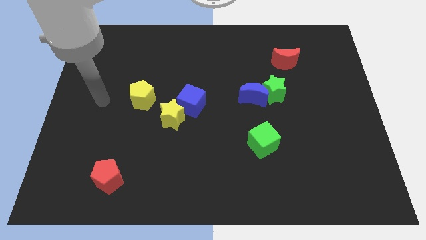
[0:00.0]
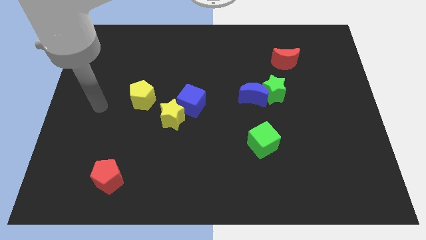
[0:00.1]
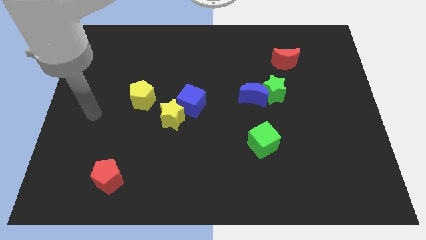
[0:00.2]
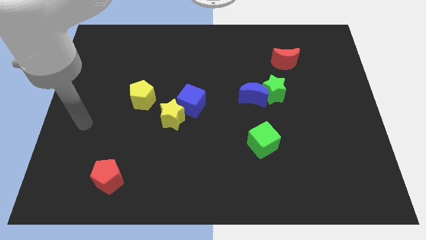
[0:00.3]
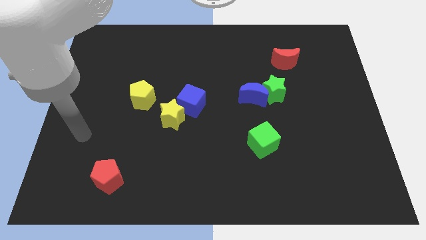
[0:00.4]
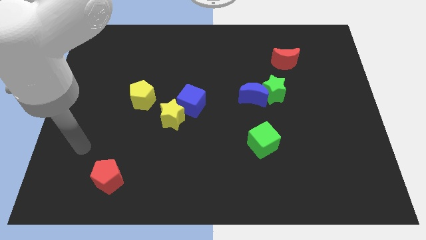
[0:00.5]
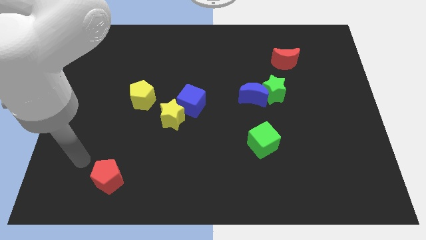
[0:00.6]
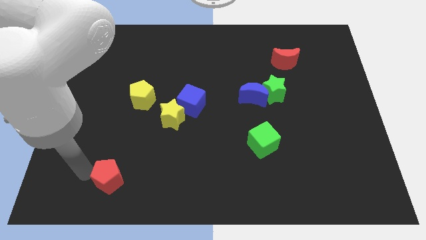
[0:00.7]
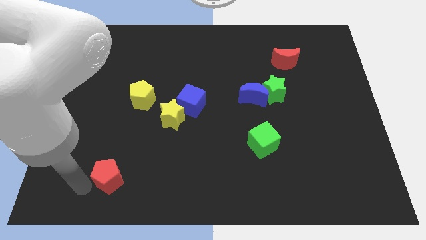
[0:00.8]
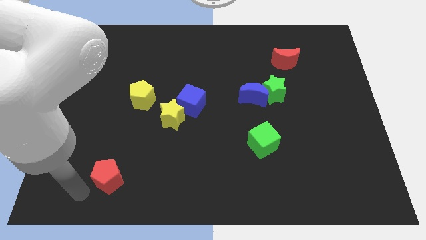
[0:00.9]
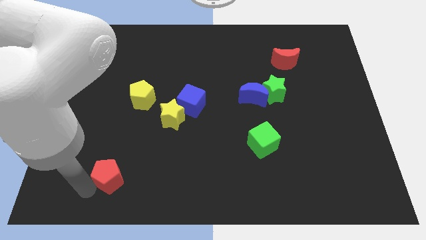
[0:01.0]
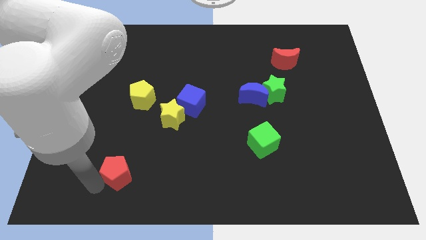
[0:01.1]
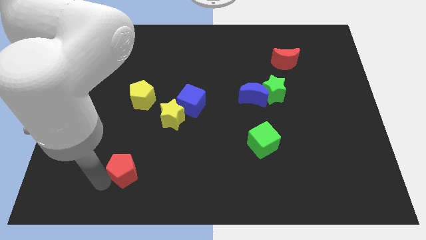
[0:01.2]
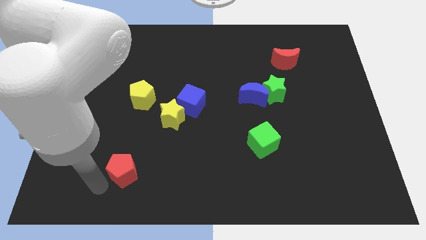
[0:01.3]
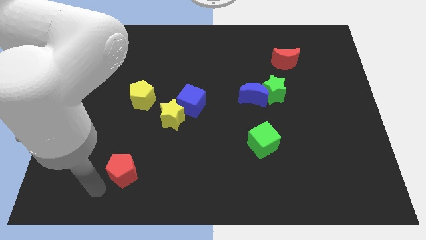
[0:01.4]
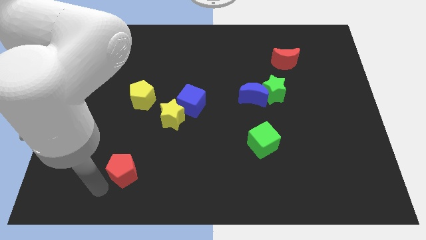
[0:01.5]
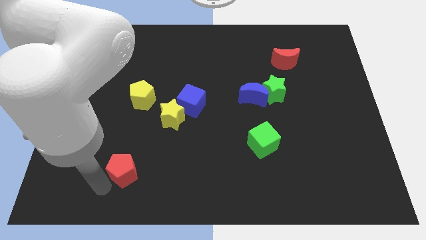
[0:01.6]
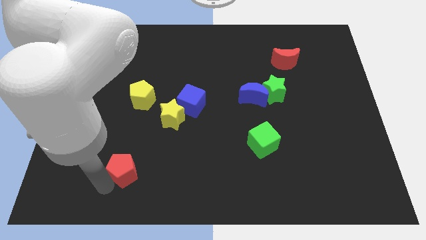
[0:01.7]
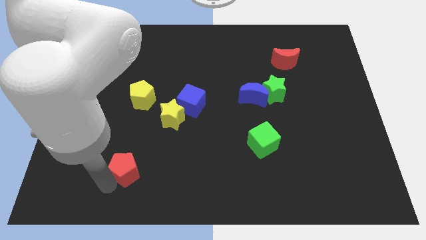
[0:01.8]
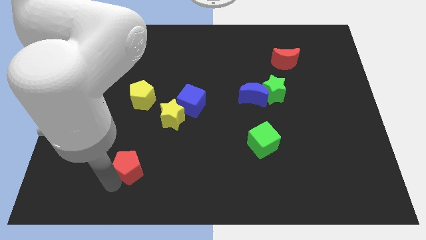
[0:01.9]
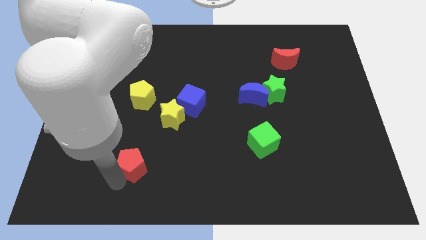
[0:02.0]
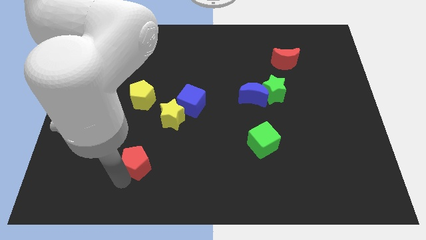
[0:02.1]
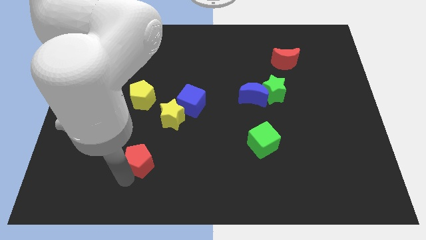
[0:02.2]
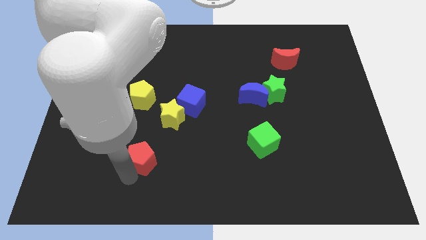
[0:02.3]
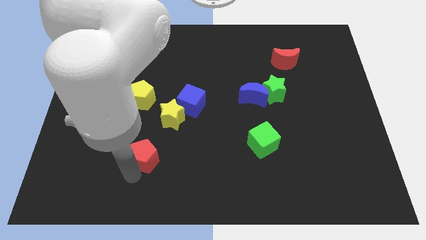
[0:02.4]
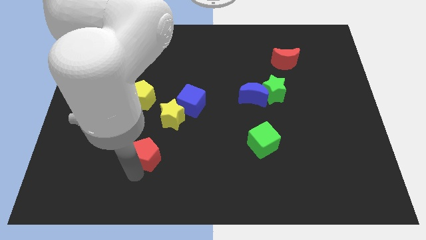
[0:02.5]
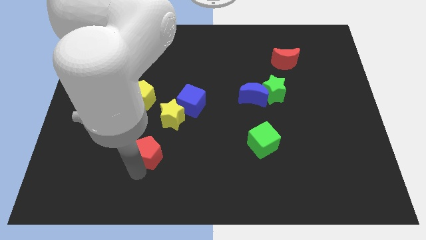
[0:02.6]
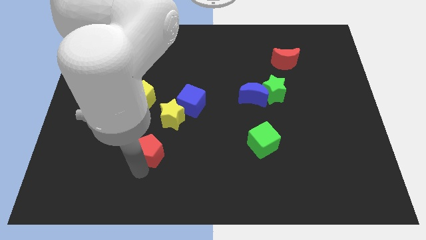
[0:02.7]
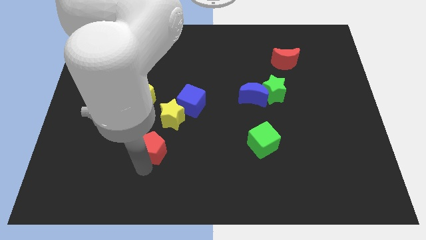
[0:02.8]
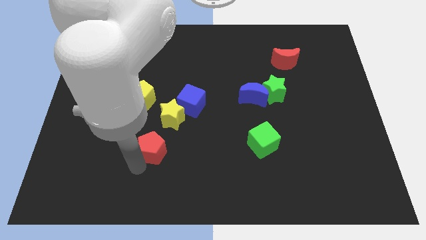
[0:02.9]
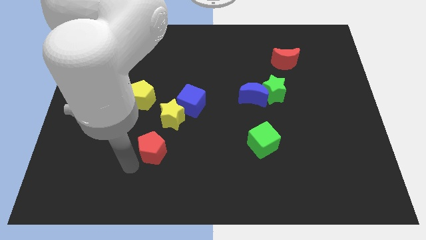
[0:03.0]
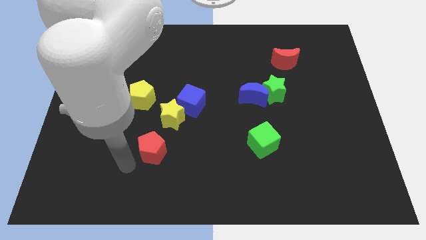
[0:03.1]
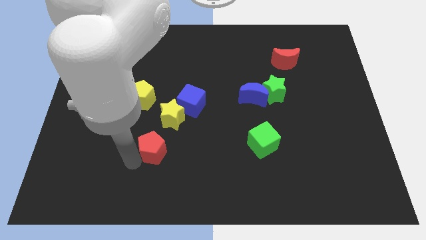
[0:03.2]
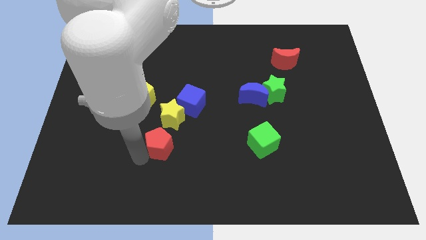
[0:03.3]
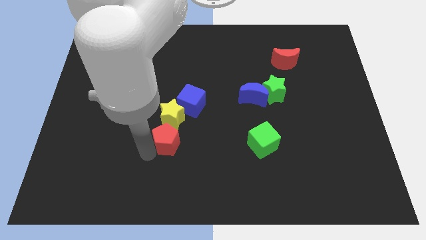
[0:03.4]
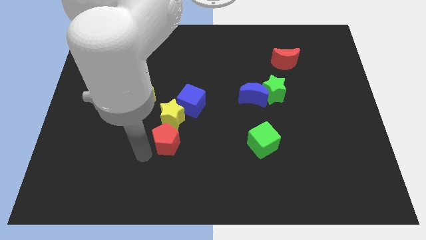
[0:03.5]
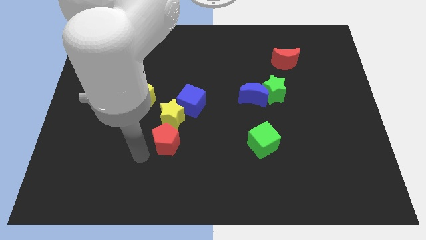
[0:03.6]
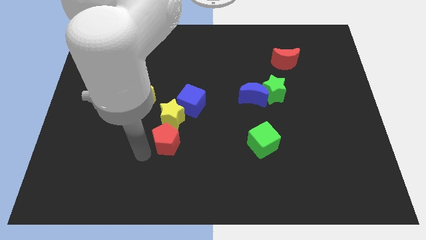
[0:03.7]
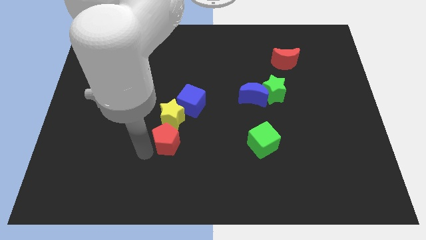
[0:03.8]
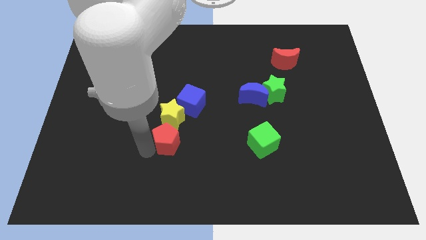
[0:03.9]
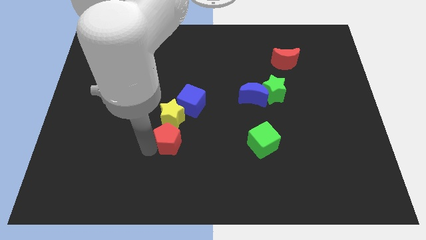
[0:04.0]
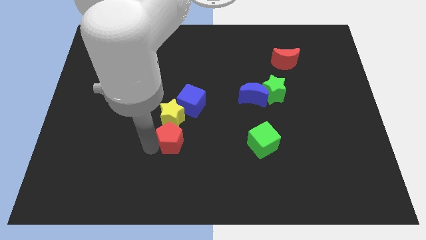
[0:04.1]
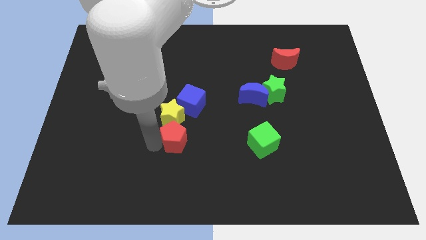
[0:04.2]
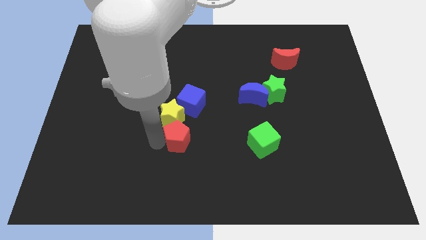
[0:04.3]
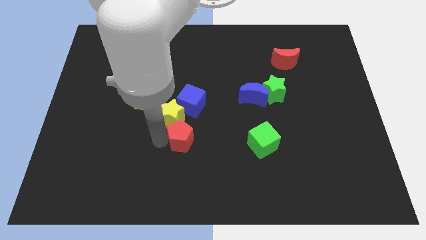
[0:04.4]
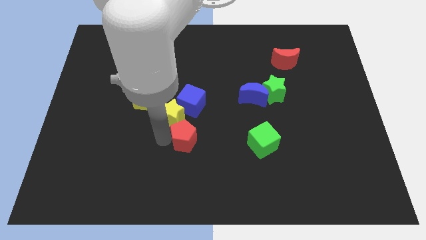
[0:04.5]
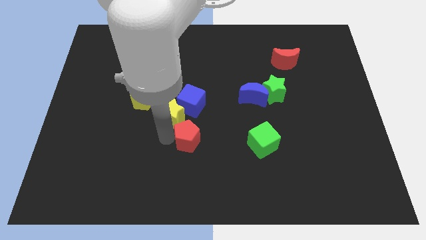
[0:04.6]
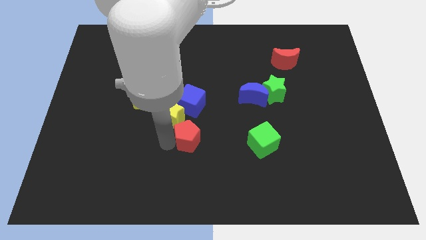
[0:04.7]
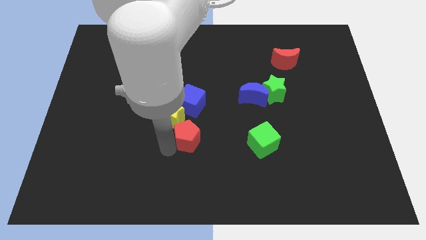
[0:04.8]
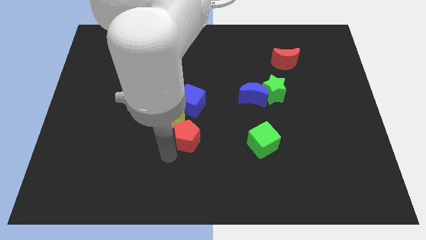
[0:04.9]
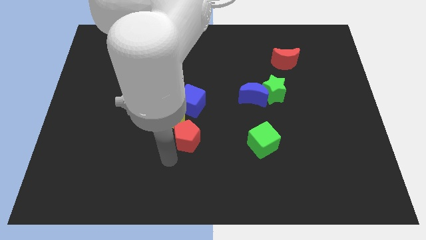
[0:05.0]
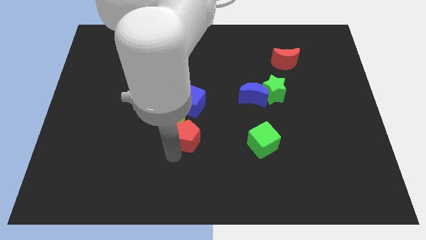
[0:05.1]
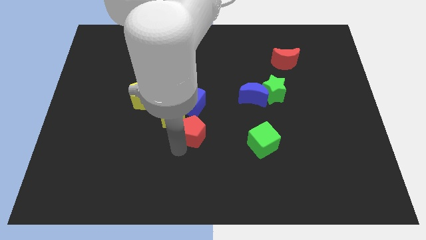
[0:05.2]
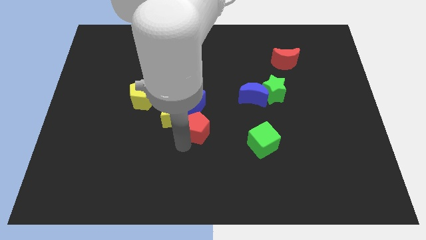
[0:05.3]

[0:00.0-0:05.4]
slide the red pentagon upwards and right diagonally

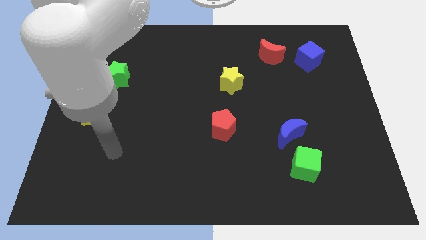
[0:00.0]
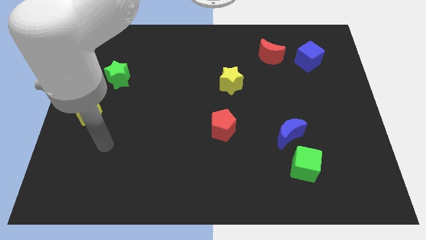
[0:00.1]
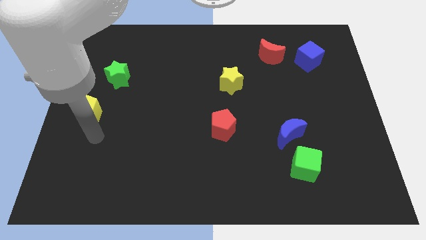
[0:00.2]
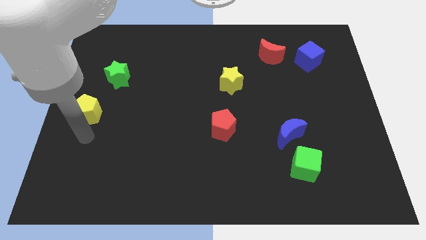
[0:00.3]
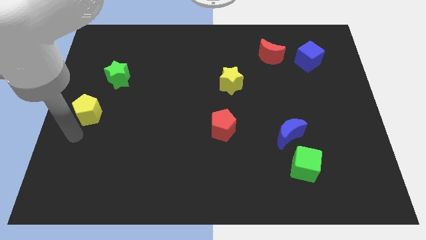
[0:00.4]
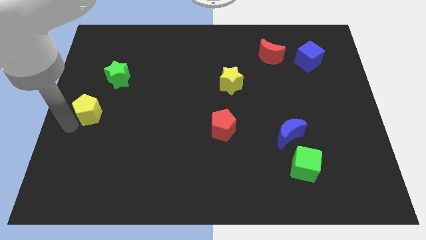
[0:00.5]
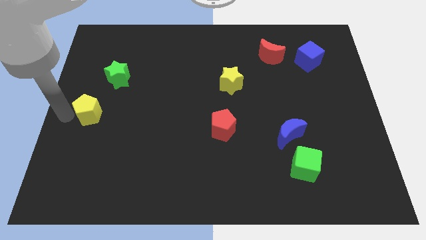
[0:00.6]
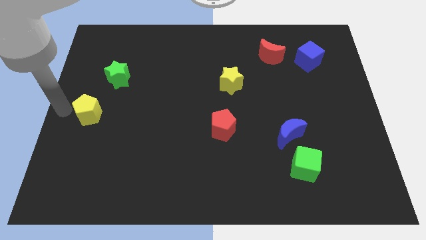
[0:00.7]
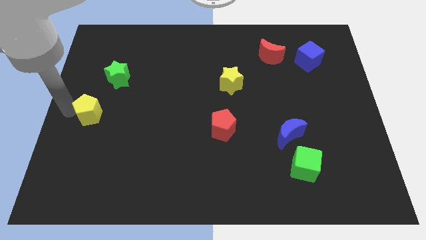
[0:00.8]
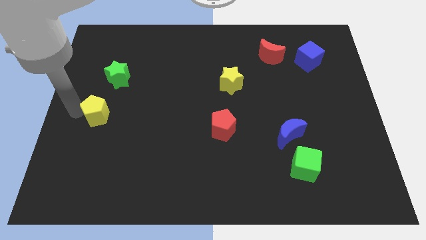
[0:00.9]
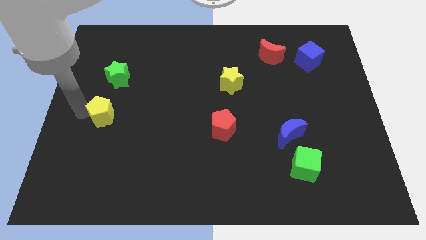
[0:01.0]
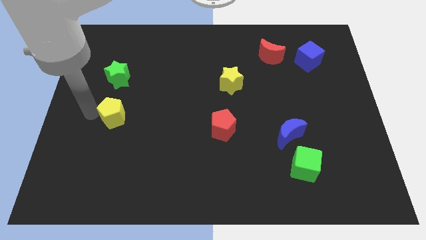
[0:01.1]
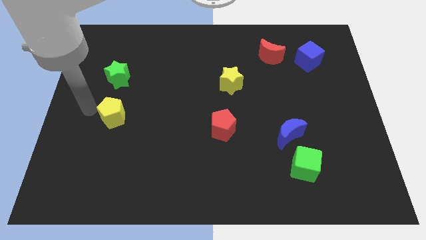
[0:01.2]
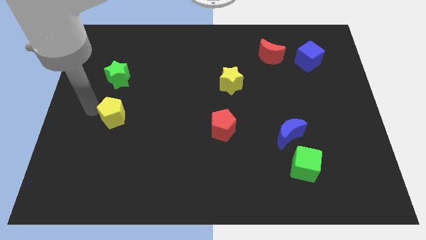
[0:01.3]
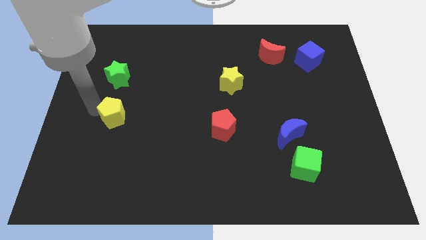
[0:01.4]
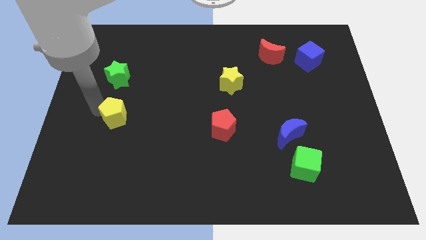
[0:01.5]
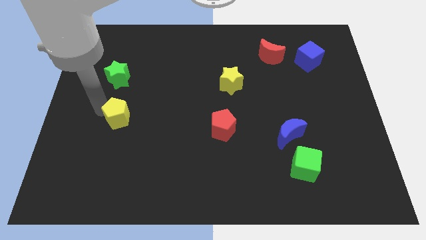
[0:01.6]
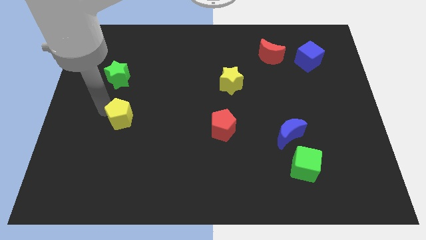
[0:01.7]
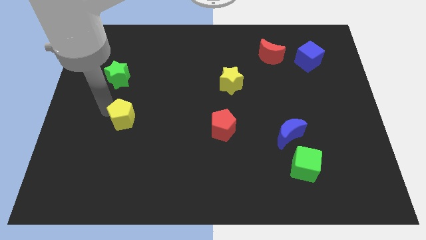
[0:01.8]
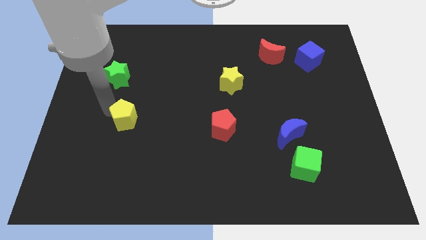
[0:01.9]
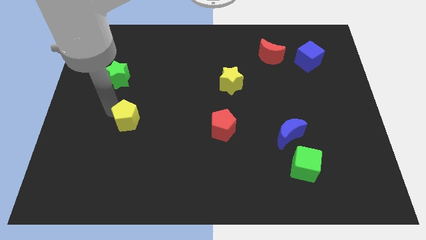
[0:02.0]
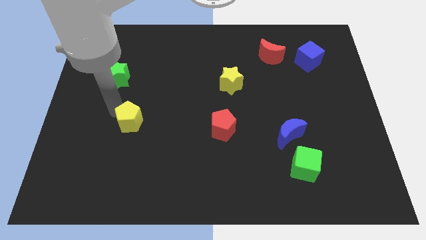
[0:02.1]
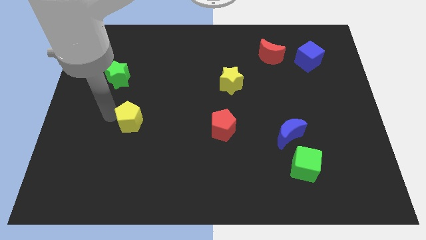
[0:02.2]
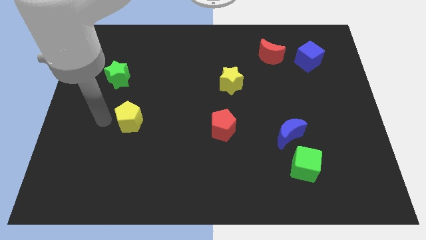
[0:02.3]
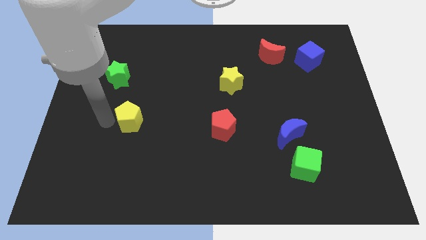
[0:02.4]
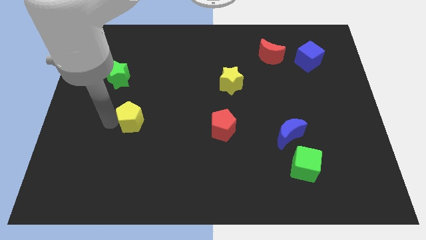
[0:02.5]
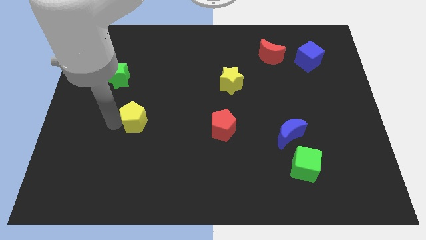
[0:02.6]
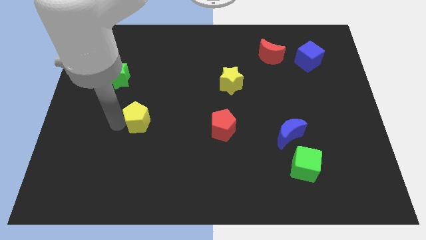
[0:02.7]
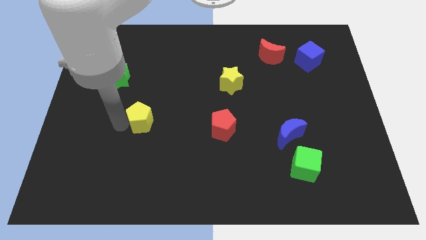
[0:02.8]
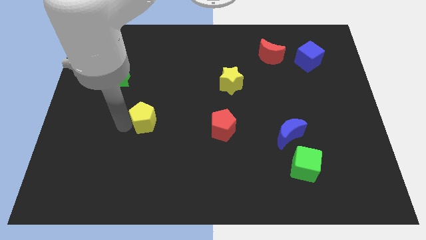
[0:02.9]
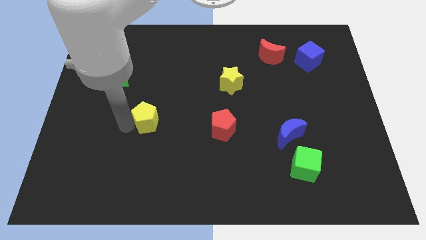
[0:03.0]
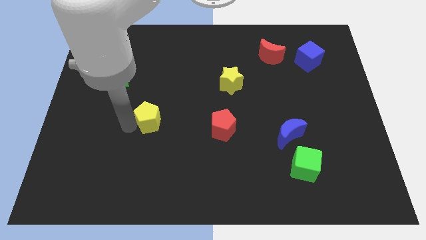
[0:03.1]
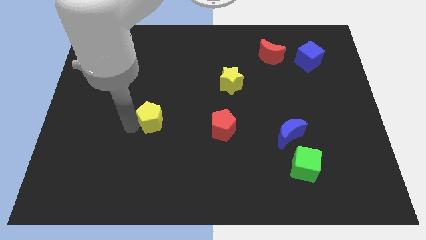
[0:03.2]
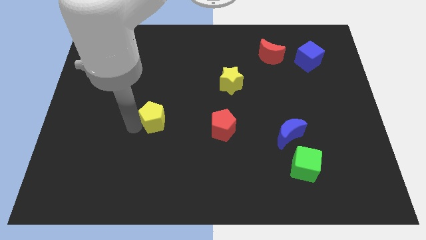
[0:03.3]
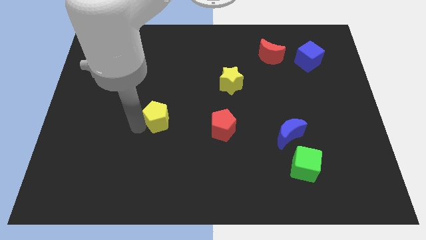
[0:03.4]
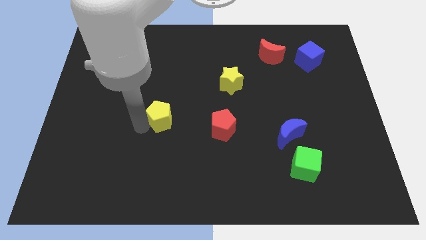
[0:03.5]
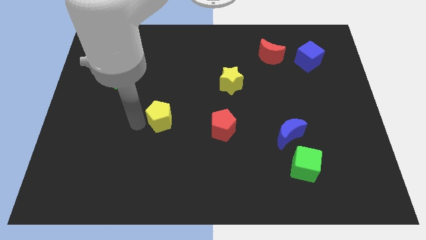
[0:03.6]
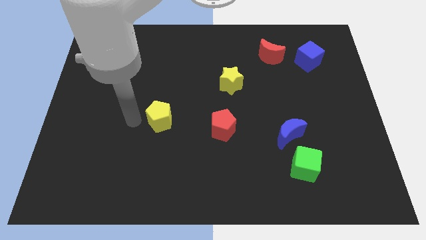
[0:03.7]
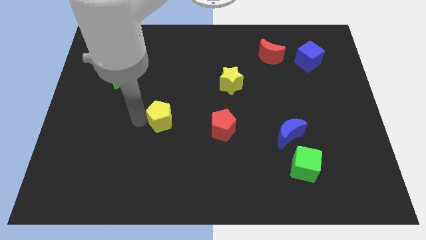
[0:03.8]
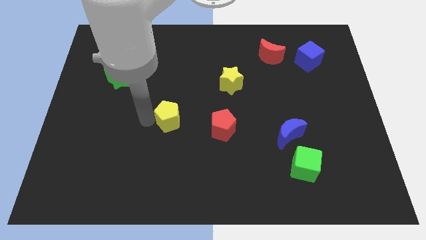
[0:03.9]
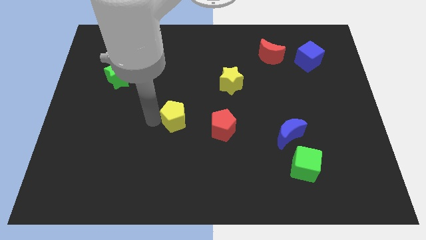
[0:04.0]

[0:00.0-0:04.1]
move the yellow pentagon right
